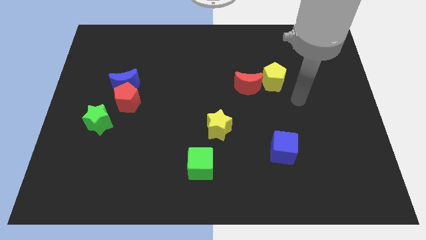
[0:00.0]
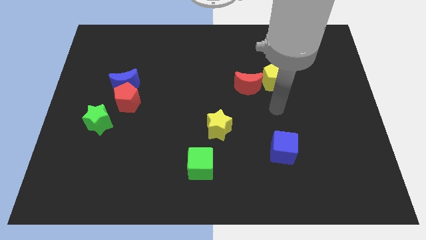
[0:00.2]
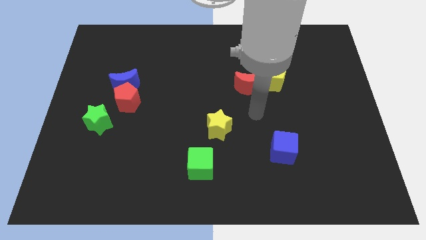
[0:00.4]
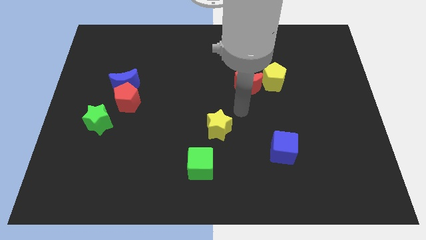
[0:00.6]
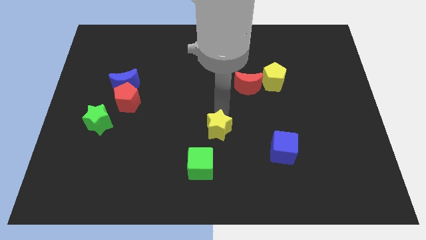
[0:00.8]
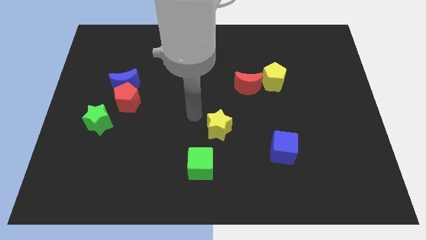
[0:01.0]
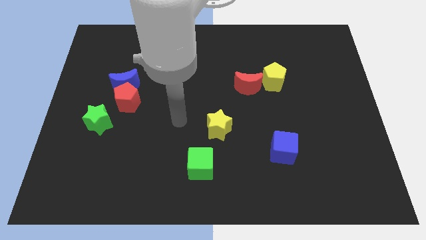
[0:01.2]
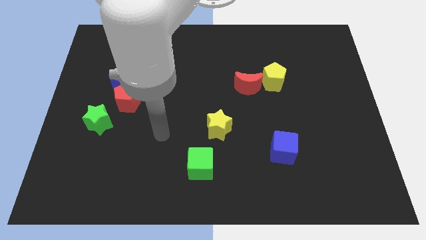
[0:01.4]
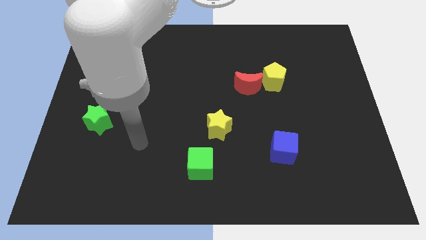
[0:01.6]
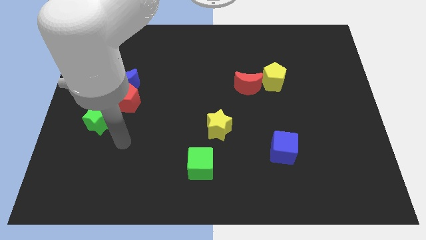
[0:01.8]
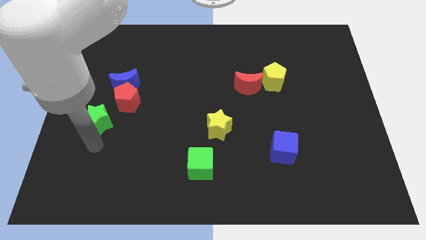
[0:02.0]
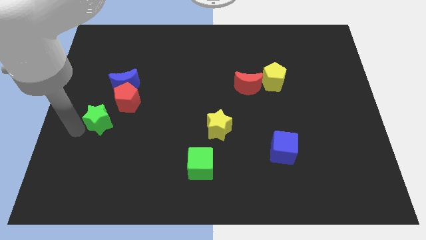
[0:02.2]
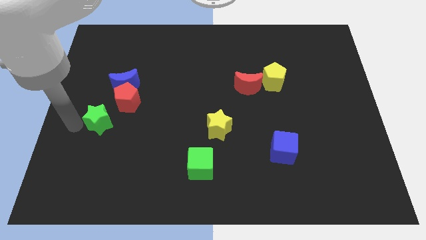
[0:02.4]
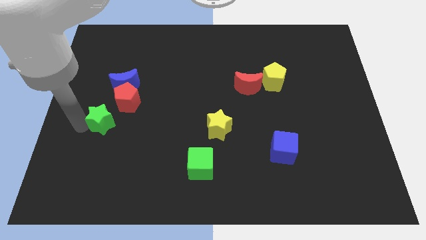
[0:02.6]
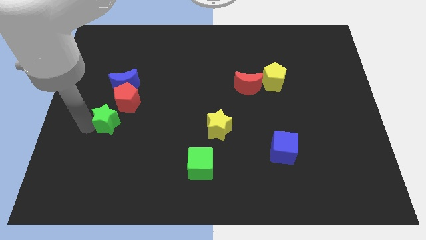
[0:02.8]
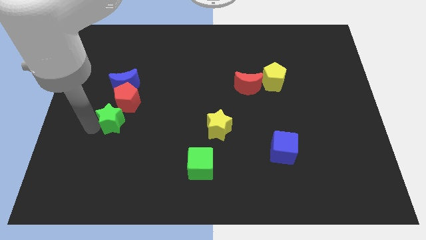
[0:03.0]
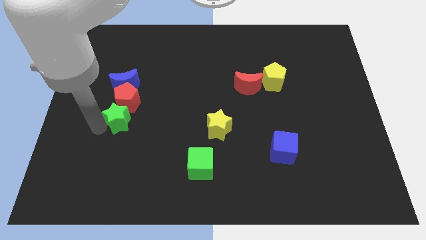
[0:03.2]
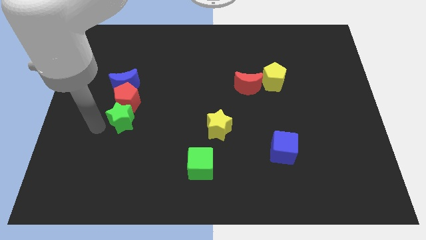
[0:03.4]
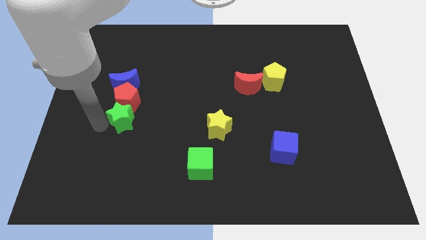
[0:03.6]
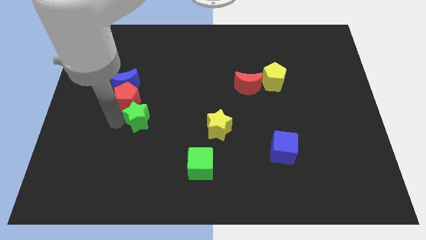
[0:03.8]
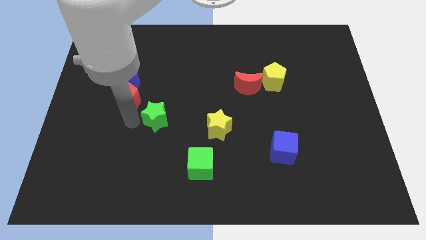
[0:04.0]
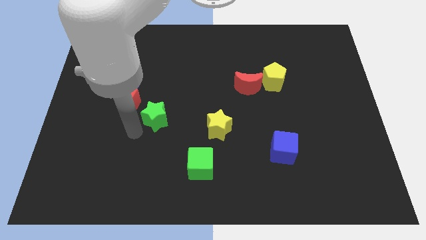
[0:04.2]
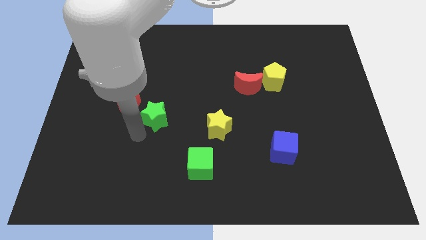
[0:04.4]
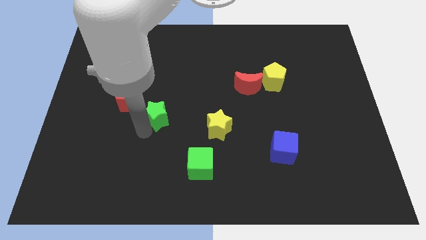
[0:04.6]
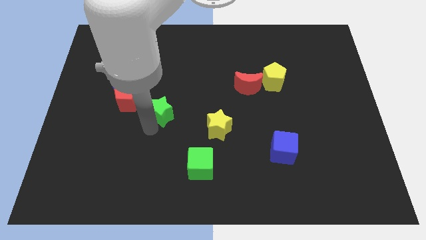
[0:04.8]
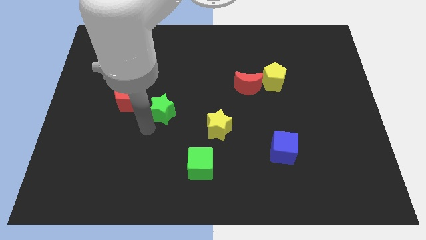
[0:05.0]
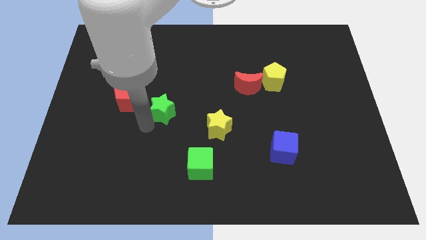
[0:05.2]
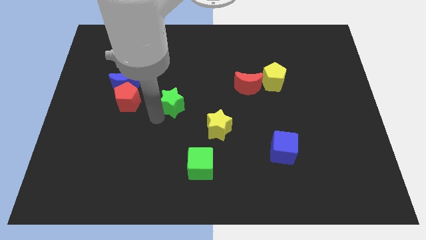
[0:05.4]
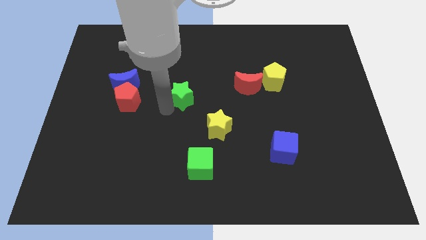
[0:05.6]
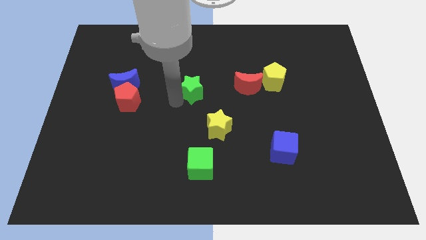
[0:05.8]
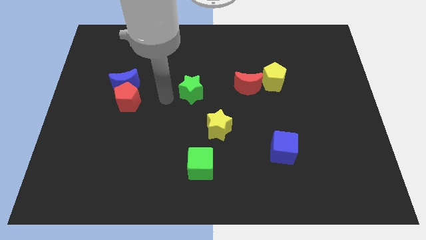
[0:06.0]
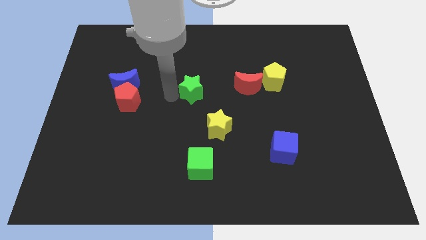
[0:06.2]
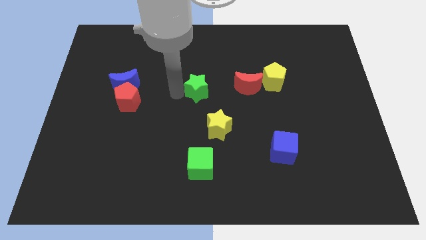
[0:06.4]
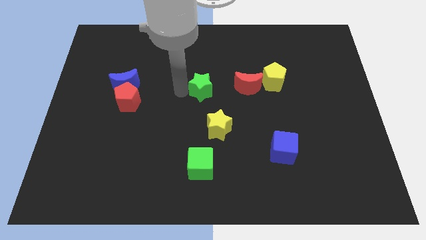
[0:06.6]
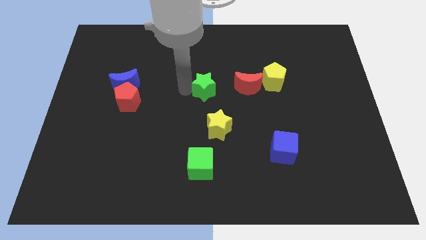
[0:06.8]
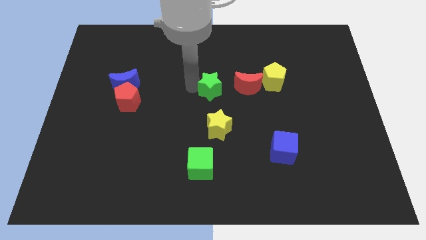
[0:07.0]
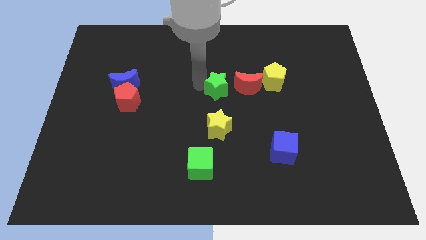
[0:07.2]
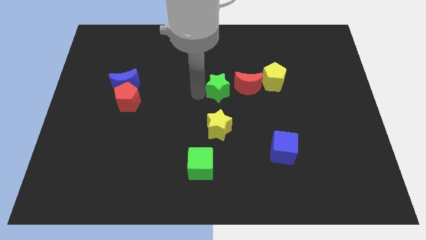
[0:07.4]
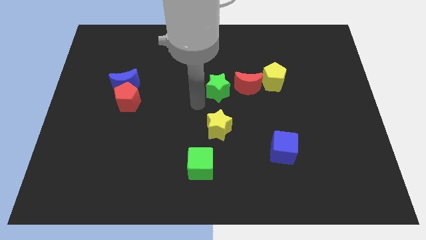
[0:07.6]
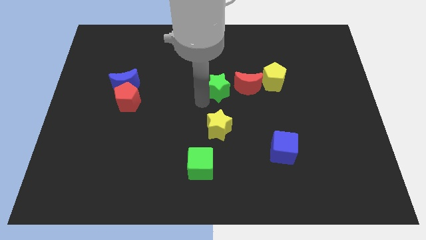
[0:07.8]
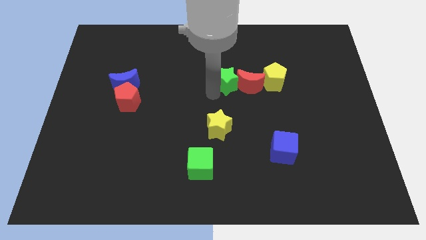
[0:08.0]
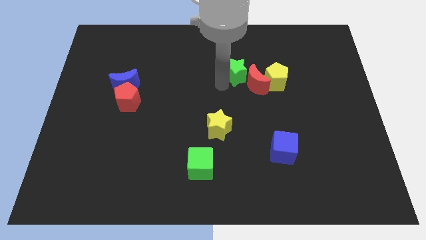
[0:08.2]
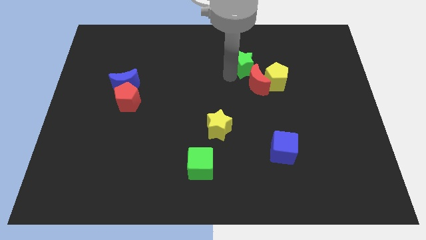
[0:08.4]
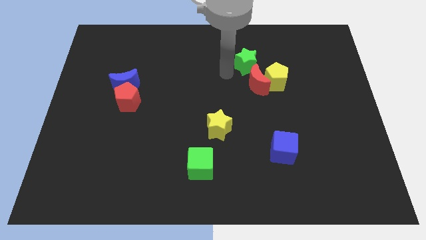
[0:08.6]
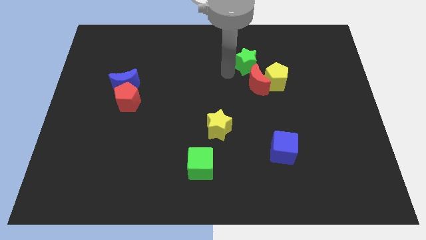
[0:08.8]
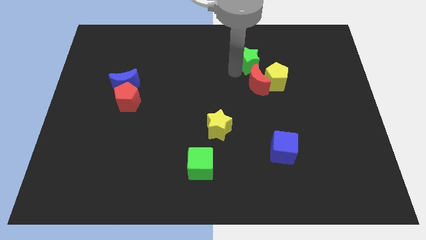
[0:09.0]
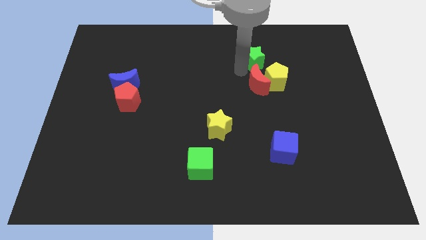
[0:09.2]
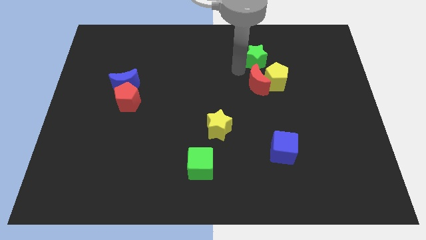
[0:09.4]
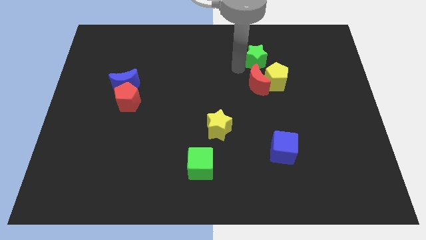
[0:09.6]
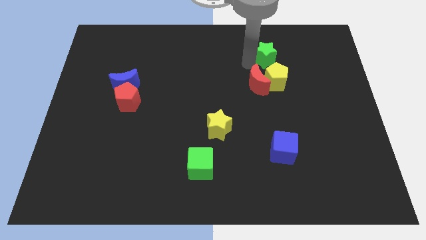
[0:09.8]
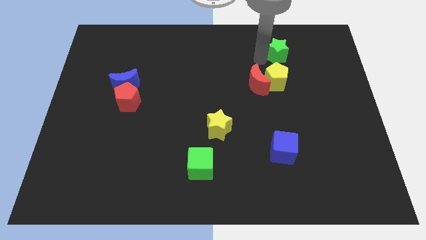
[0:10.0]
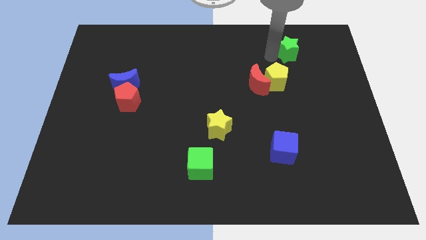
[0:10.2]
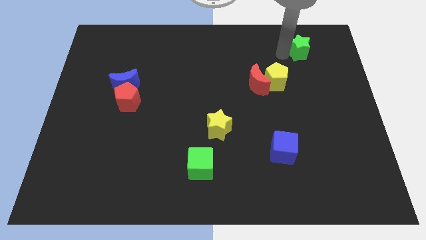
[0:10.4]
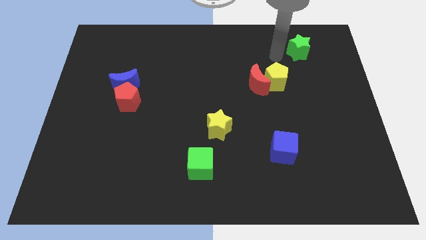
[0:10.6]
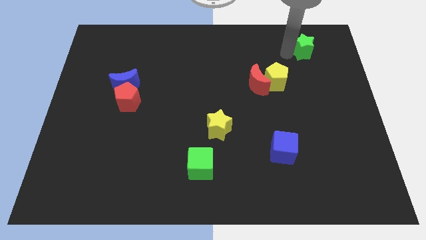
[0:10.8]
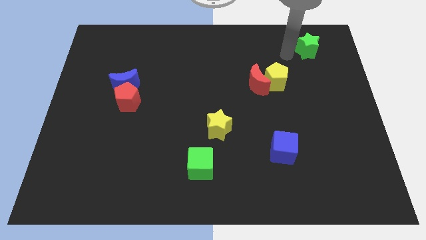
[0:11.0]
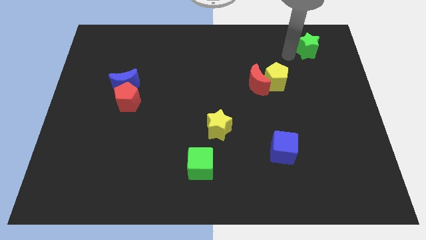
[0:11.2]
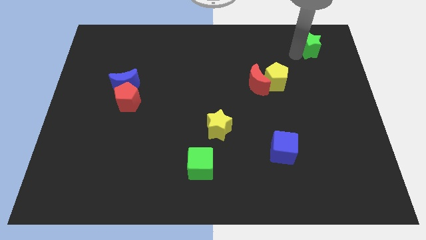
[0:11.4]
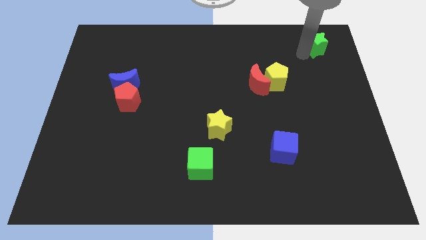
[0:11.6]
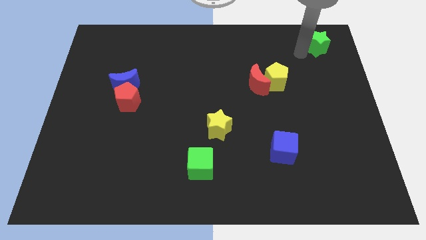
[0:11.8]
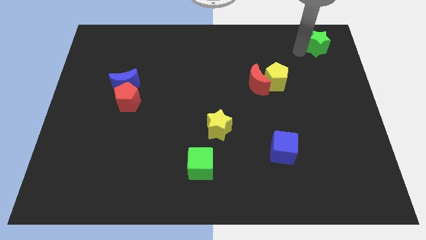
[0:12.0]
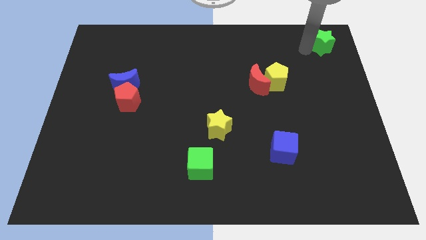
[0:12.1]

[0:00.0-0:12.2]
move the green star to the top right
